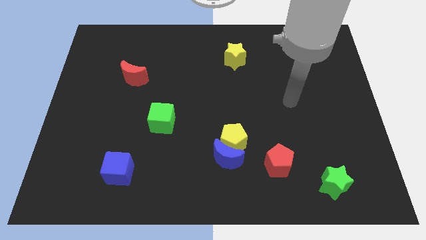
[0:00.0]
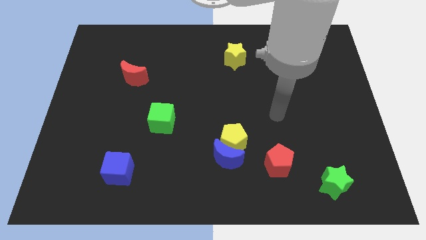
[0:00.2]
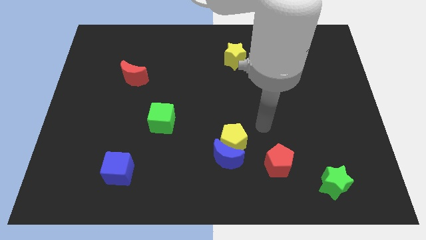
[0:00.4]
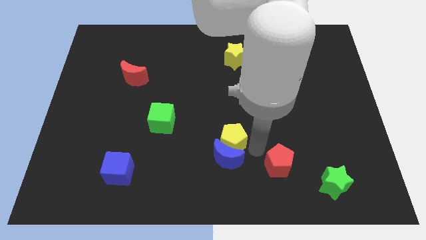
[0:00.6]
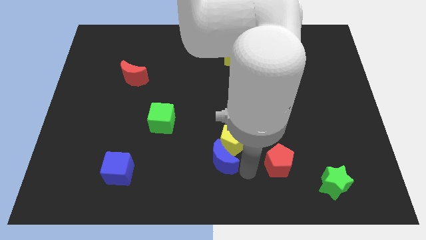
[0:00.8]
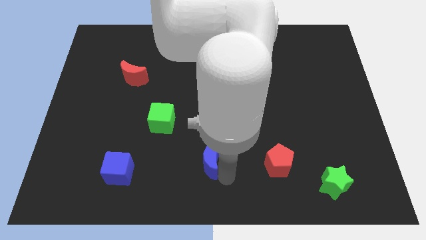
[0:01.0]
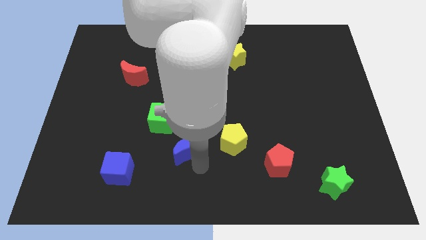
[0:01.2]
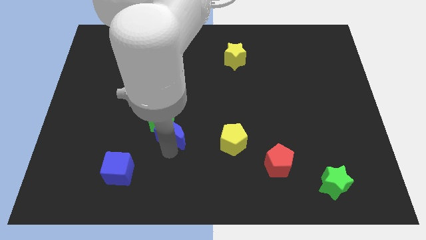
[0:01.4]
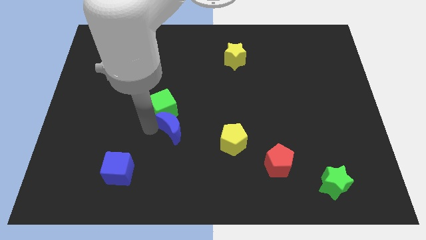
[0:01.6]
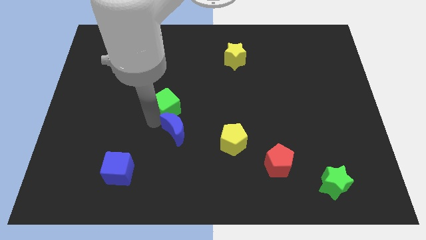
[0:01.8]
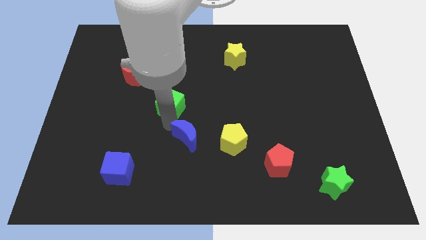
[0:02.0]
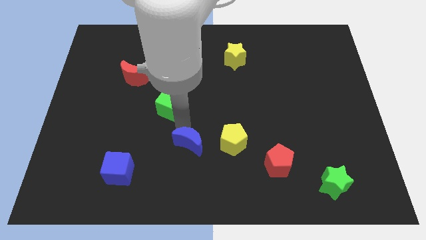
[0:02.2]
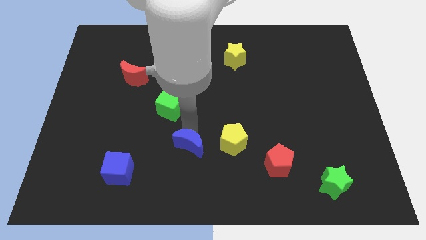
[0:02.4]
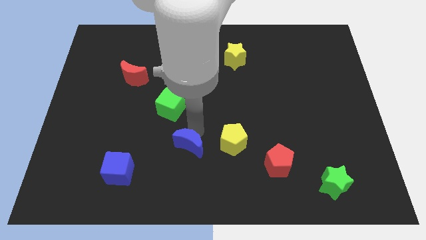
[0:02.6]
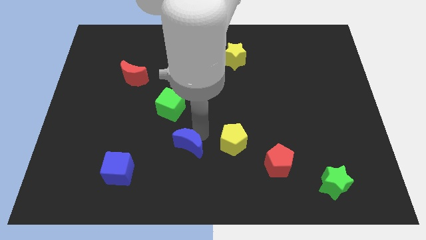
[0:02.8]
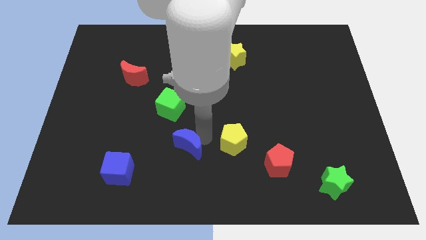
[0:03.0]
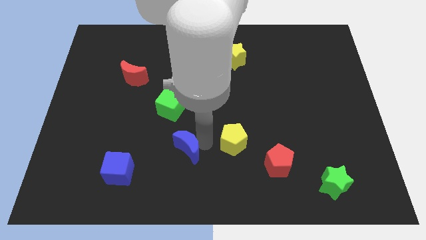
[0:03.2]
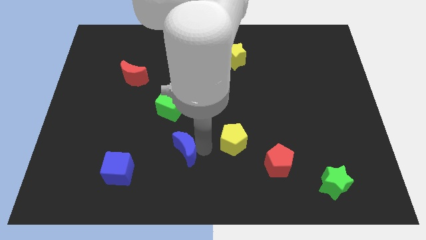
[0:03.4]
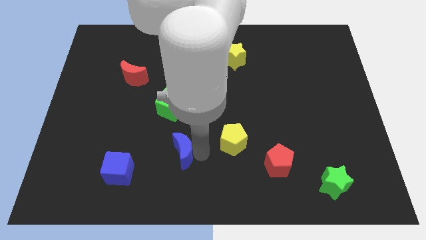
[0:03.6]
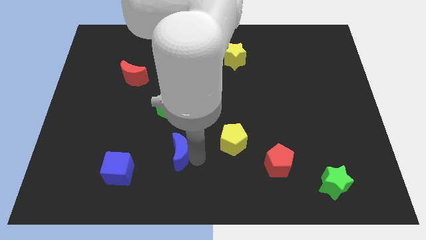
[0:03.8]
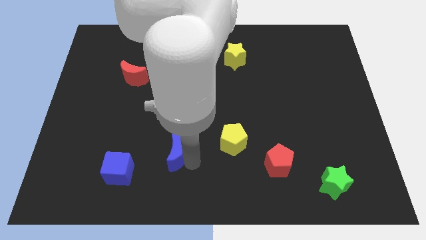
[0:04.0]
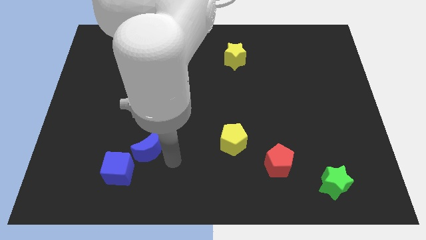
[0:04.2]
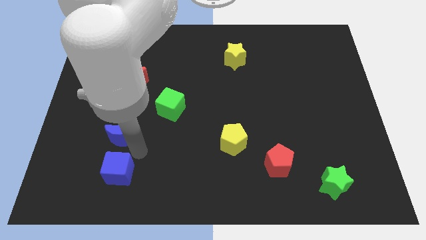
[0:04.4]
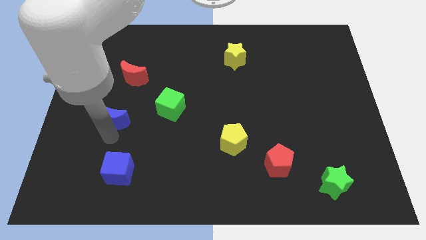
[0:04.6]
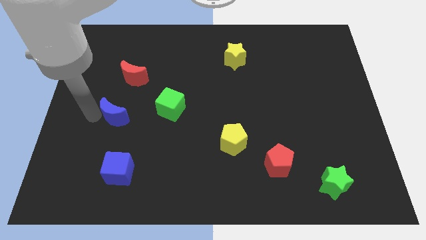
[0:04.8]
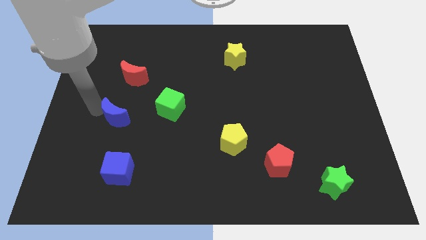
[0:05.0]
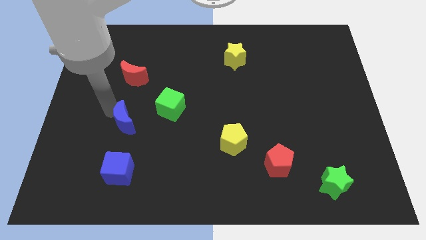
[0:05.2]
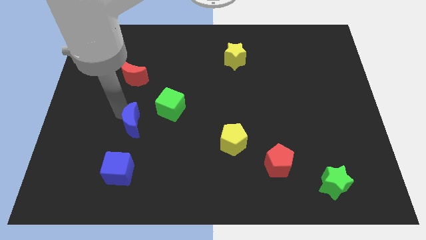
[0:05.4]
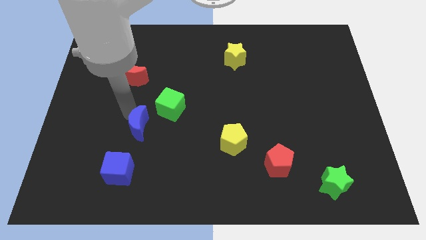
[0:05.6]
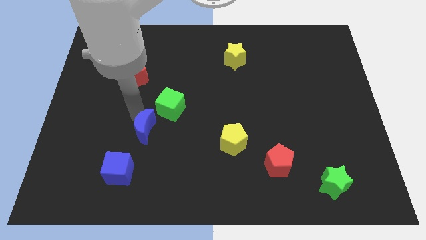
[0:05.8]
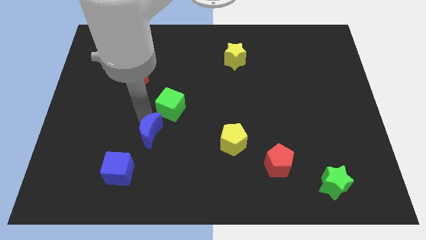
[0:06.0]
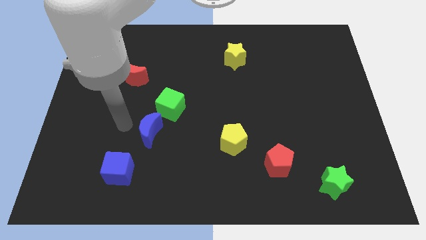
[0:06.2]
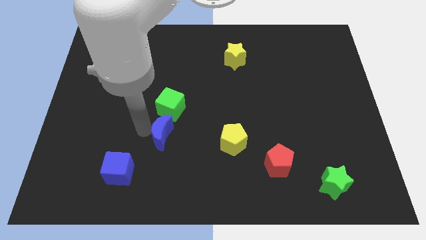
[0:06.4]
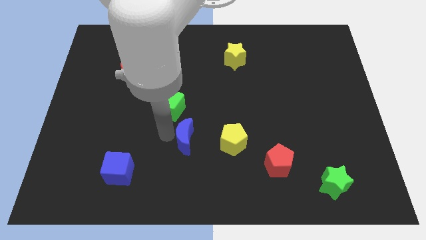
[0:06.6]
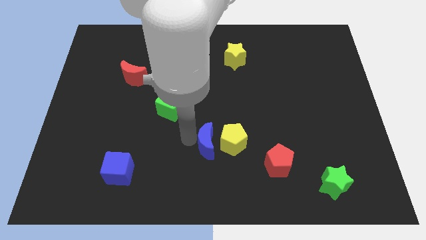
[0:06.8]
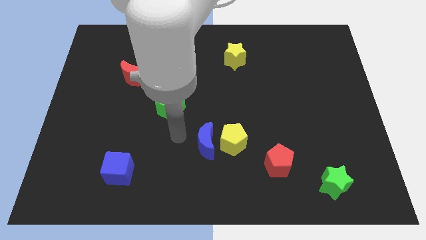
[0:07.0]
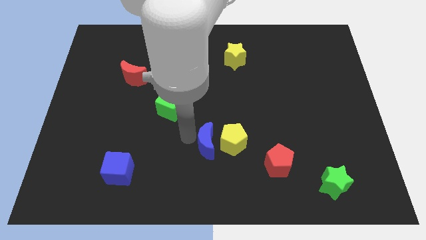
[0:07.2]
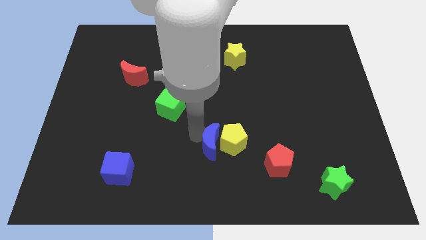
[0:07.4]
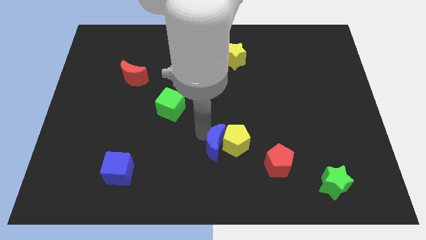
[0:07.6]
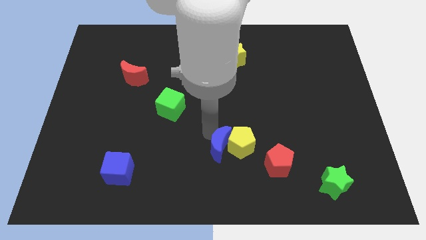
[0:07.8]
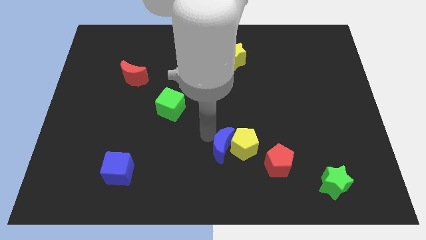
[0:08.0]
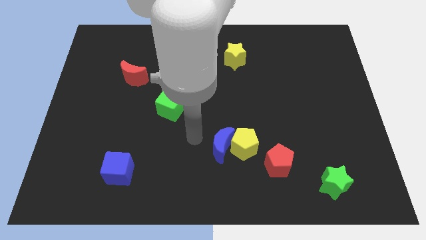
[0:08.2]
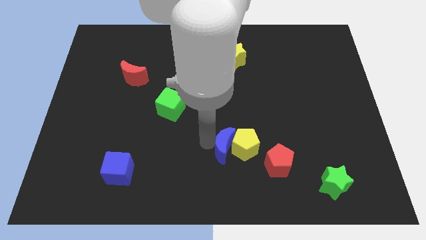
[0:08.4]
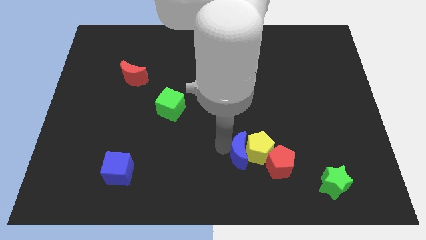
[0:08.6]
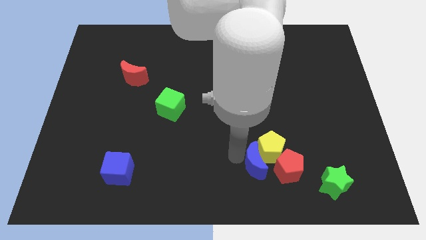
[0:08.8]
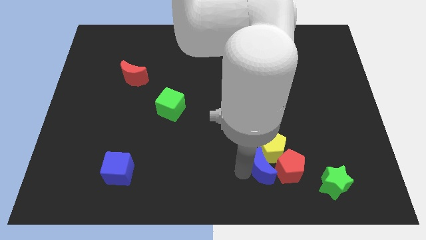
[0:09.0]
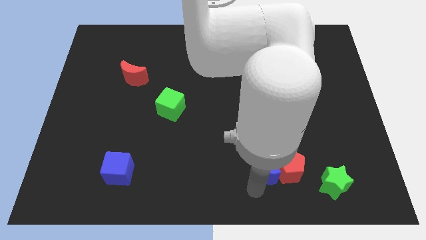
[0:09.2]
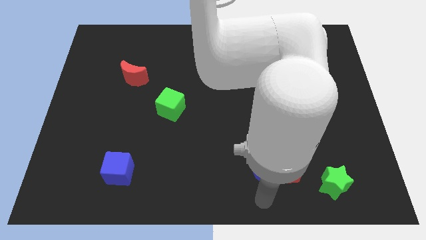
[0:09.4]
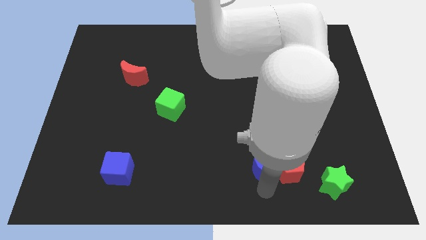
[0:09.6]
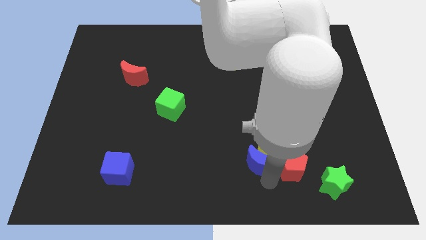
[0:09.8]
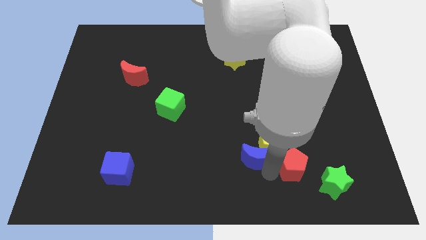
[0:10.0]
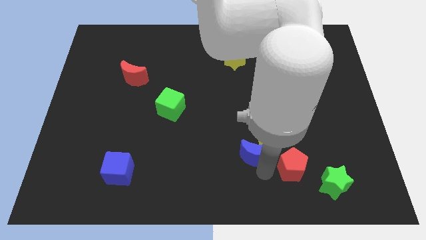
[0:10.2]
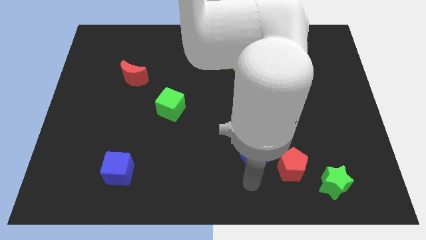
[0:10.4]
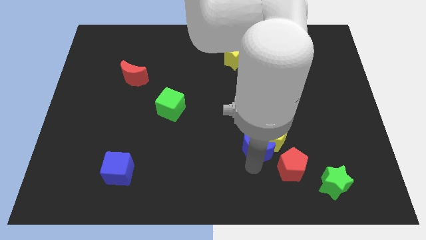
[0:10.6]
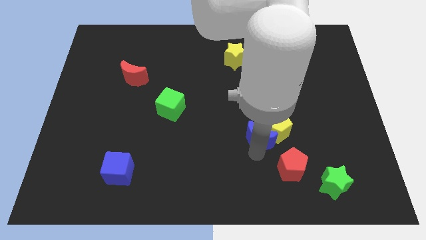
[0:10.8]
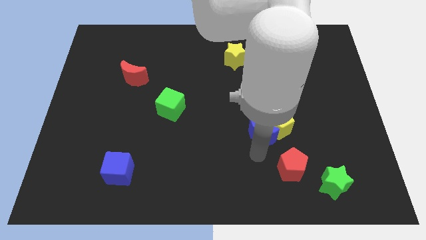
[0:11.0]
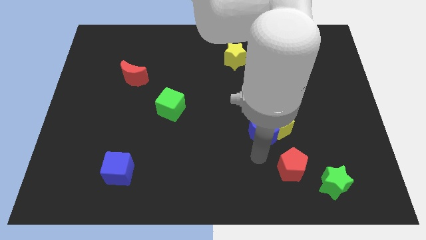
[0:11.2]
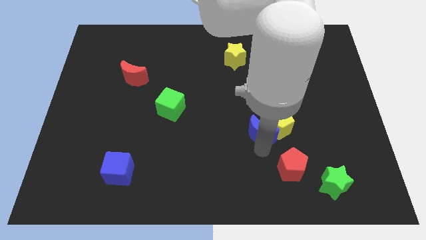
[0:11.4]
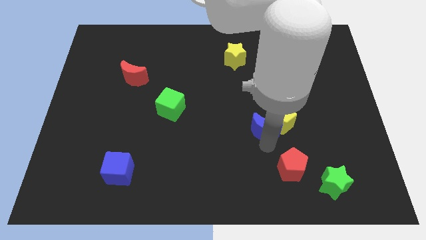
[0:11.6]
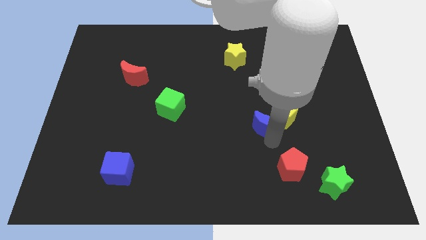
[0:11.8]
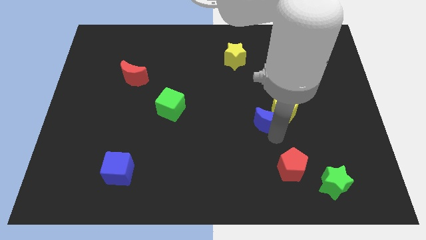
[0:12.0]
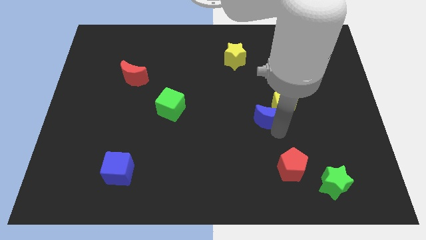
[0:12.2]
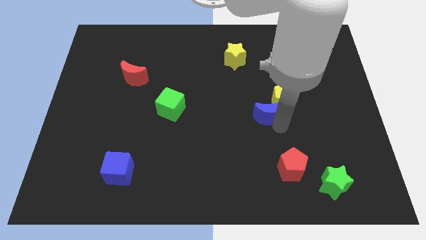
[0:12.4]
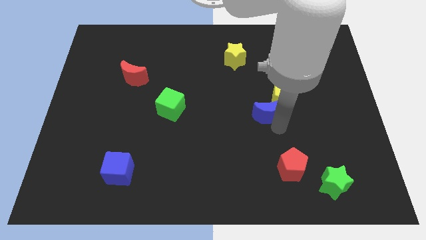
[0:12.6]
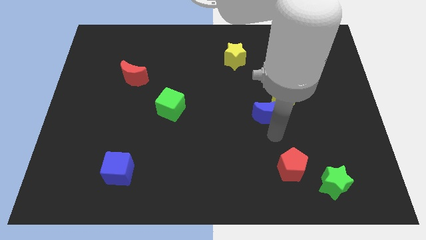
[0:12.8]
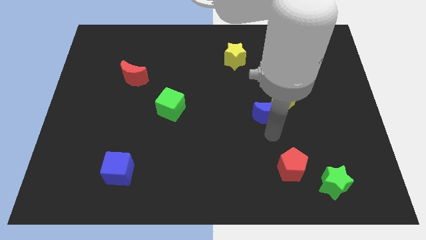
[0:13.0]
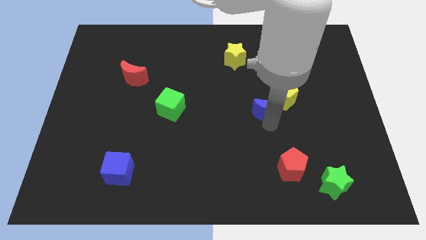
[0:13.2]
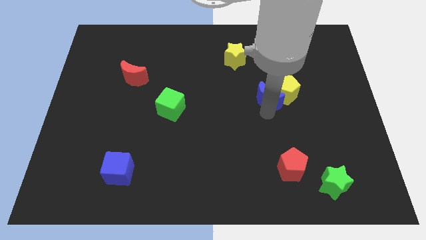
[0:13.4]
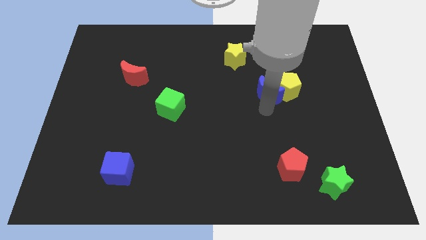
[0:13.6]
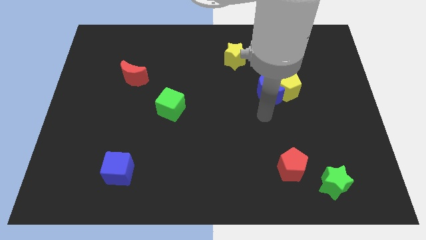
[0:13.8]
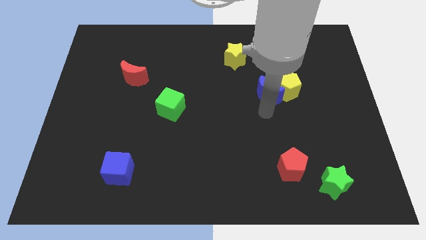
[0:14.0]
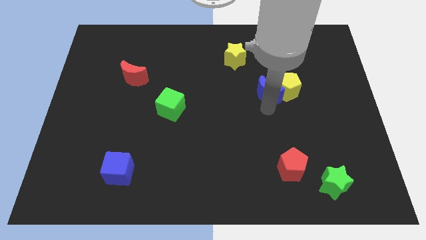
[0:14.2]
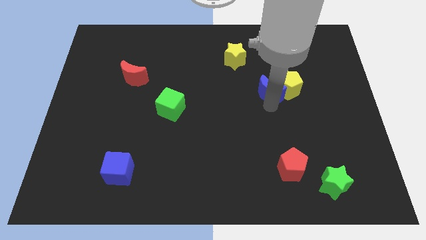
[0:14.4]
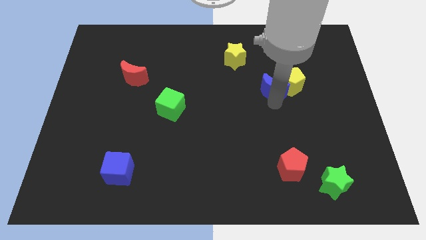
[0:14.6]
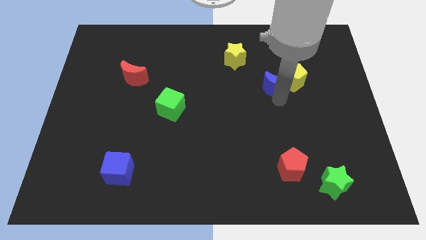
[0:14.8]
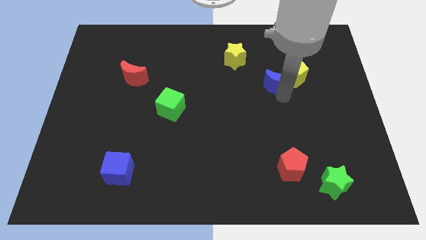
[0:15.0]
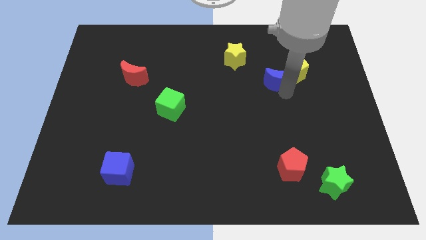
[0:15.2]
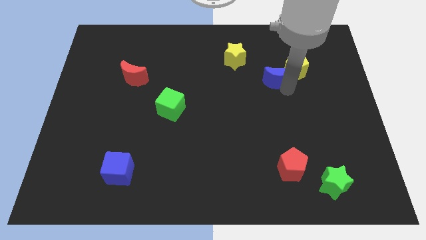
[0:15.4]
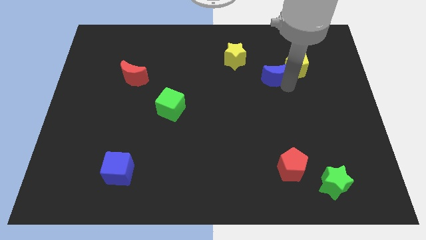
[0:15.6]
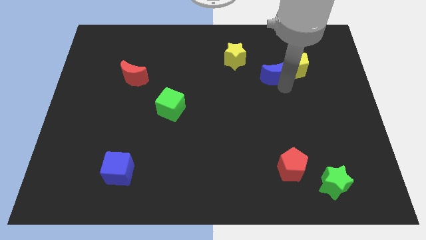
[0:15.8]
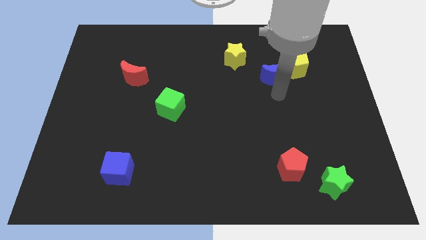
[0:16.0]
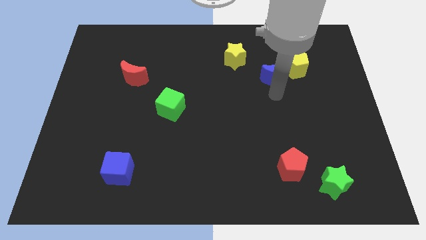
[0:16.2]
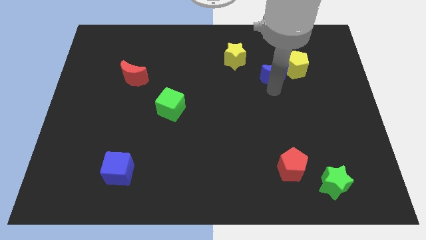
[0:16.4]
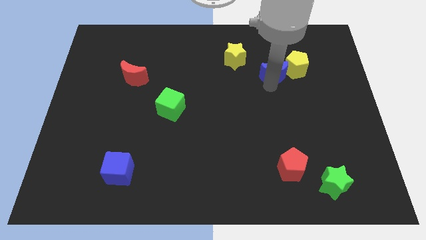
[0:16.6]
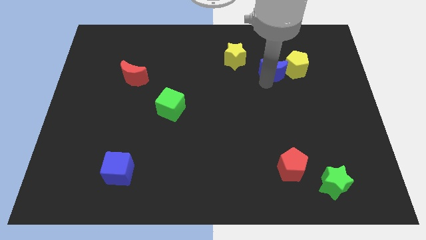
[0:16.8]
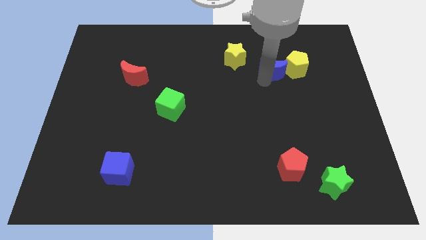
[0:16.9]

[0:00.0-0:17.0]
move the blue moon to the right side of the yellow star
